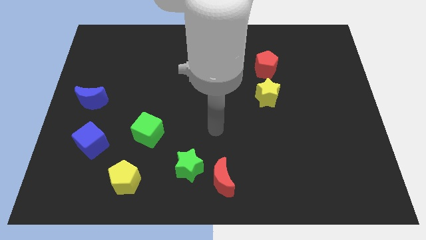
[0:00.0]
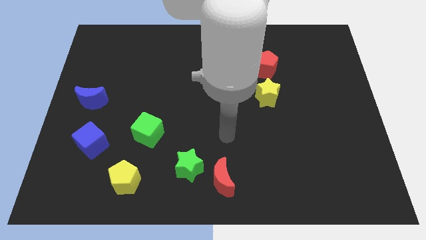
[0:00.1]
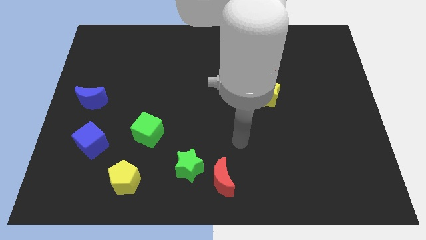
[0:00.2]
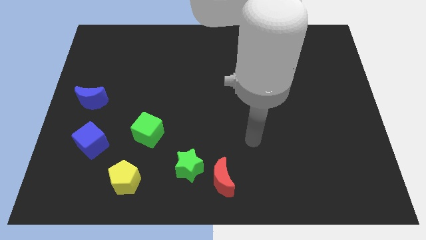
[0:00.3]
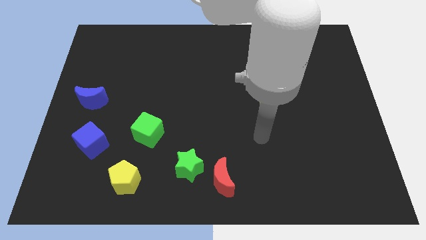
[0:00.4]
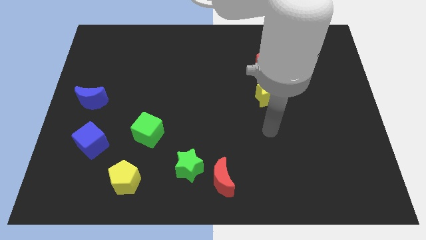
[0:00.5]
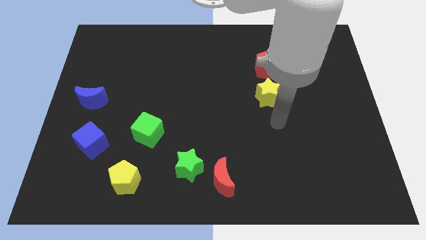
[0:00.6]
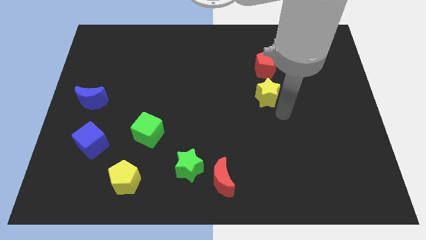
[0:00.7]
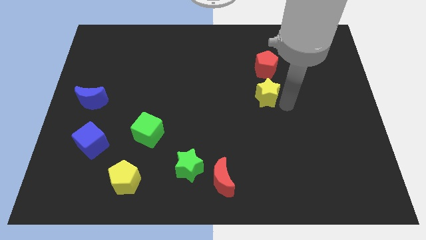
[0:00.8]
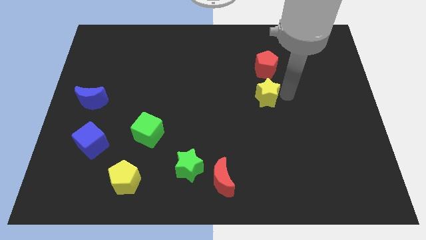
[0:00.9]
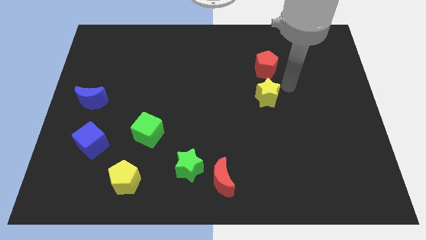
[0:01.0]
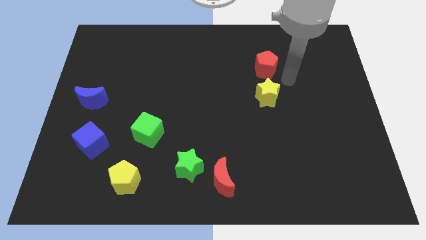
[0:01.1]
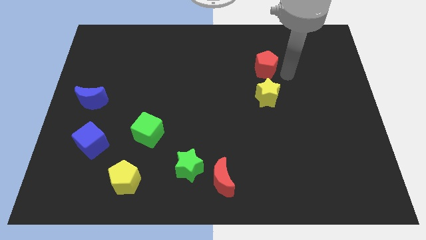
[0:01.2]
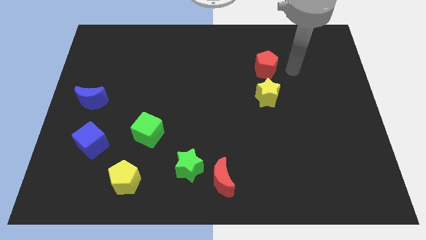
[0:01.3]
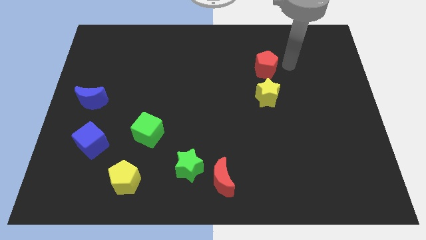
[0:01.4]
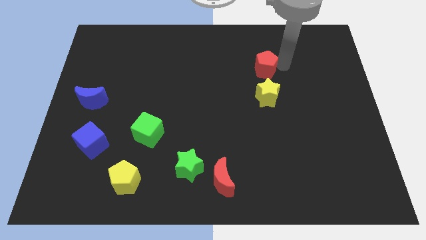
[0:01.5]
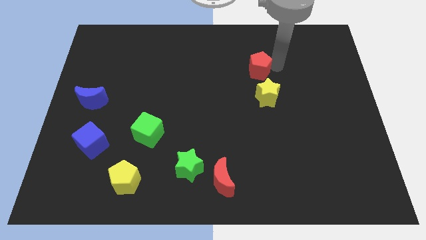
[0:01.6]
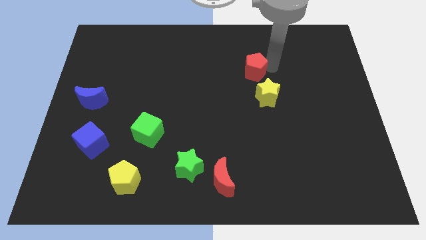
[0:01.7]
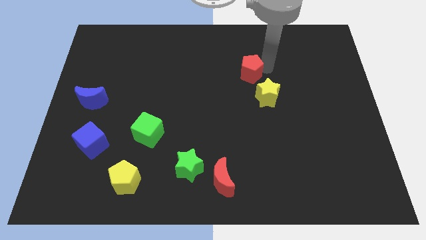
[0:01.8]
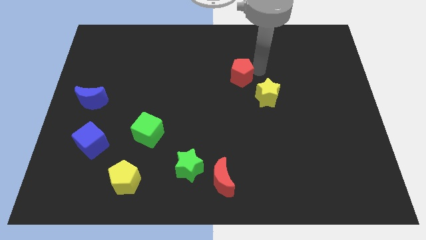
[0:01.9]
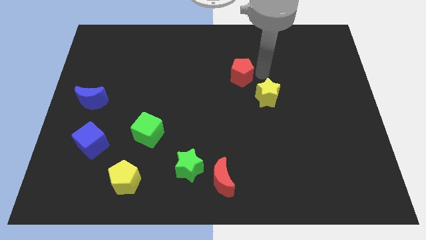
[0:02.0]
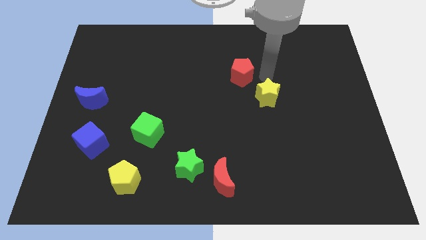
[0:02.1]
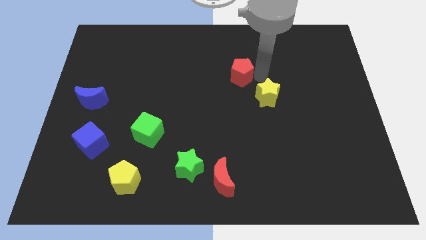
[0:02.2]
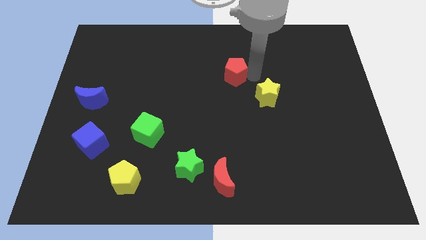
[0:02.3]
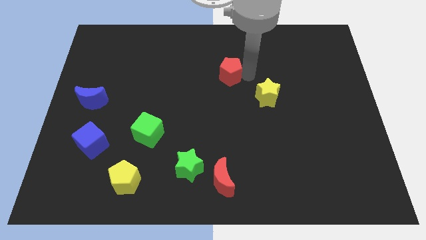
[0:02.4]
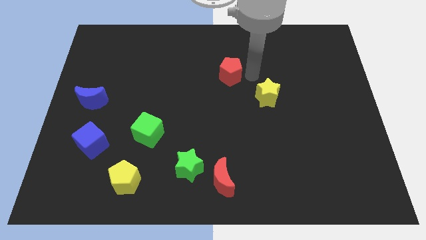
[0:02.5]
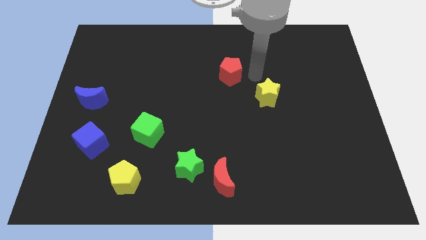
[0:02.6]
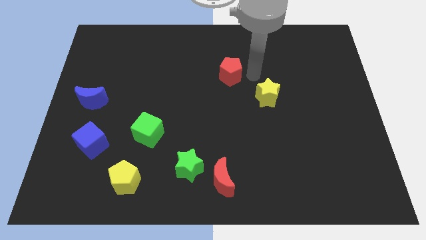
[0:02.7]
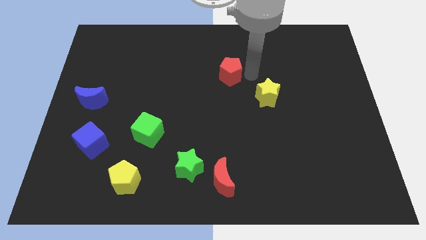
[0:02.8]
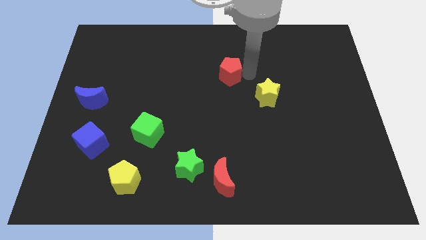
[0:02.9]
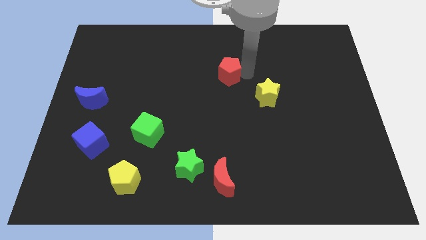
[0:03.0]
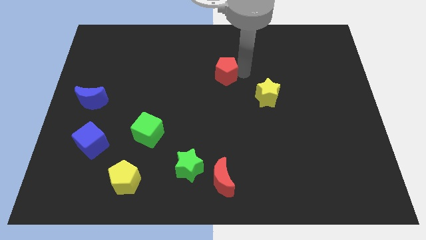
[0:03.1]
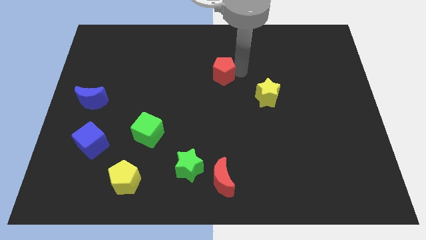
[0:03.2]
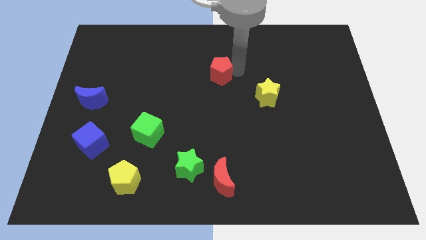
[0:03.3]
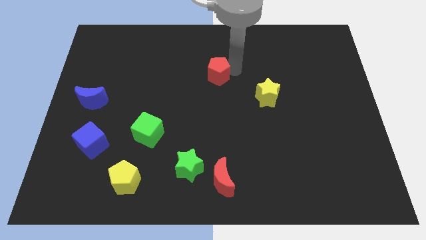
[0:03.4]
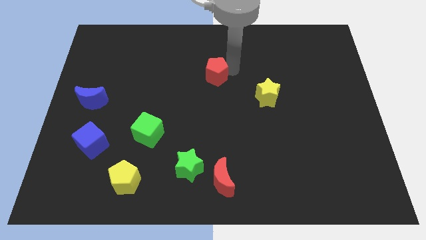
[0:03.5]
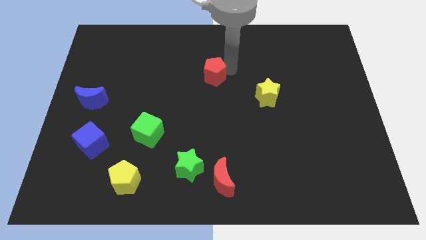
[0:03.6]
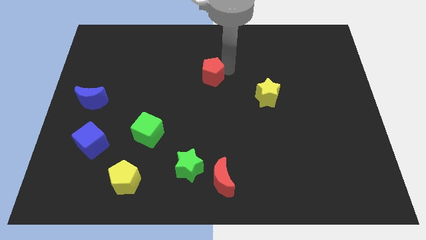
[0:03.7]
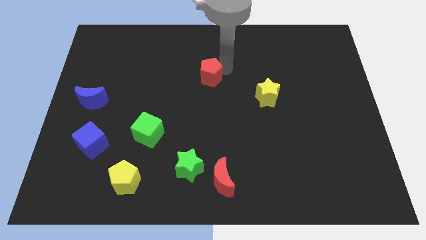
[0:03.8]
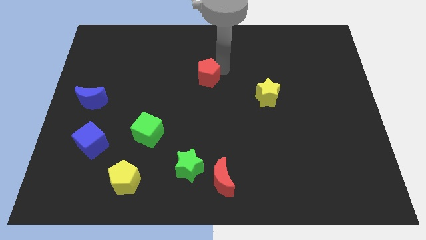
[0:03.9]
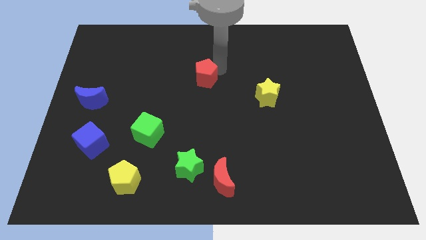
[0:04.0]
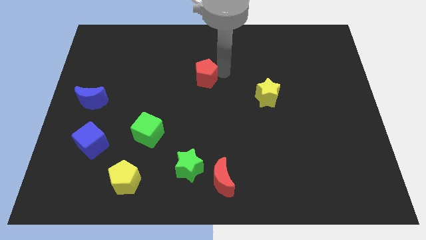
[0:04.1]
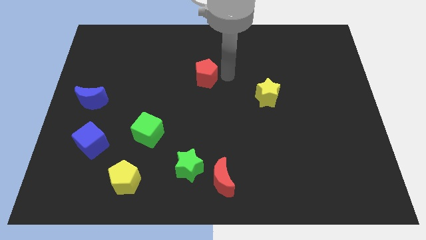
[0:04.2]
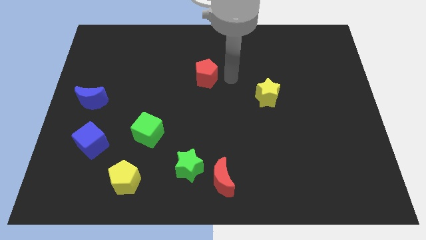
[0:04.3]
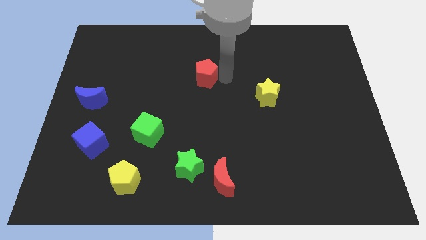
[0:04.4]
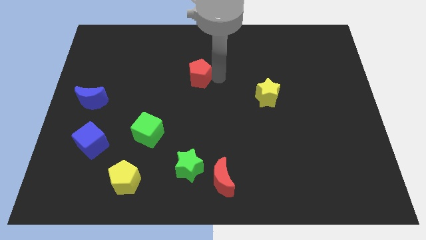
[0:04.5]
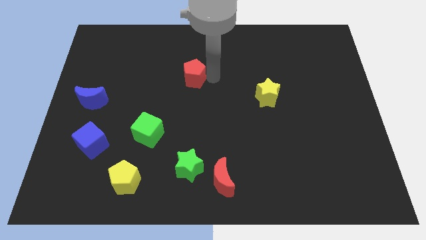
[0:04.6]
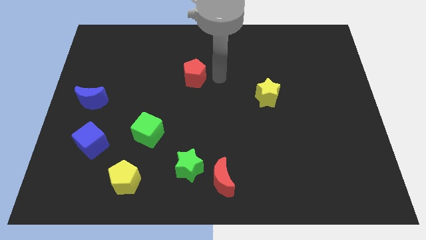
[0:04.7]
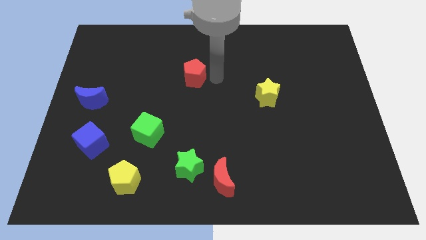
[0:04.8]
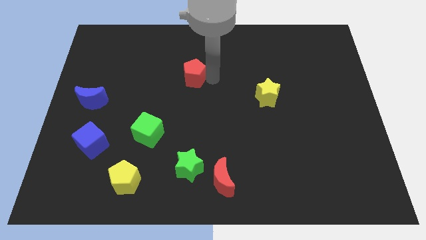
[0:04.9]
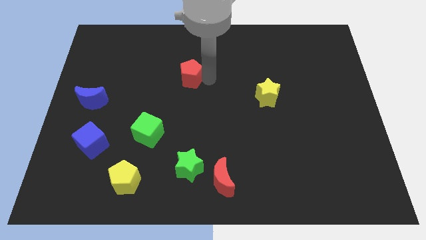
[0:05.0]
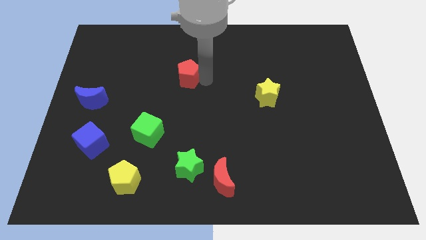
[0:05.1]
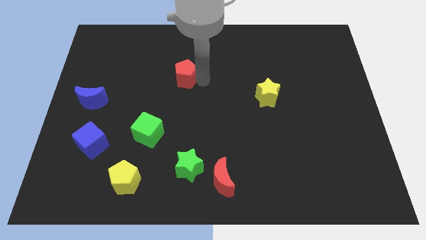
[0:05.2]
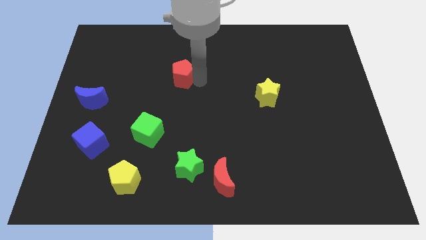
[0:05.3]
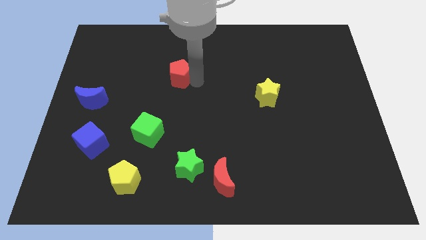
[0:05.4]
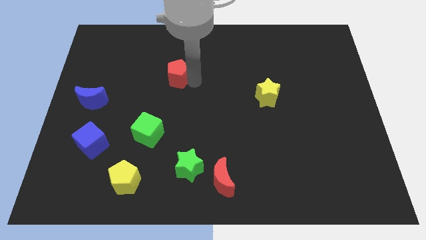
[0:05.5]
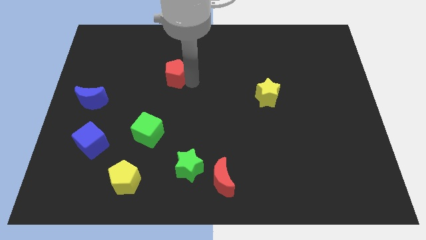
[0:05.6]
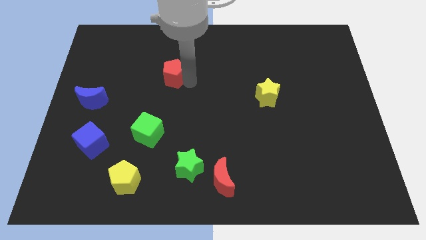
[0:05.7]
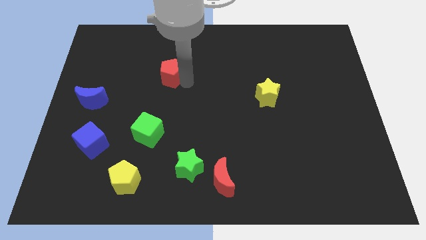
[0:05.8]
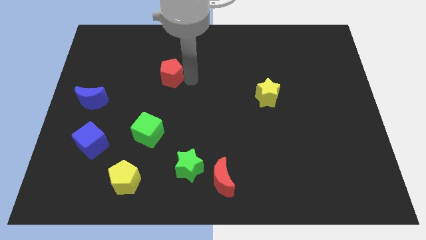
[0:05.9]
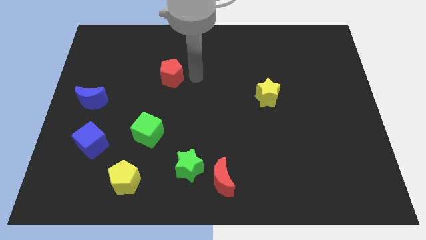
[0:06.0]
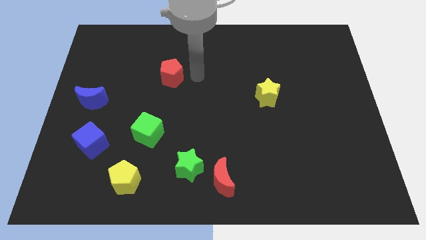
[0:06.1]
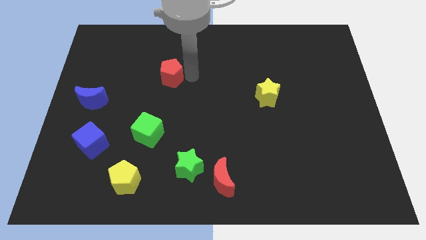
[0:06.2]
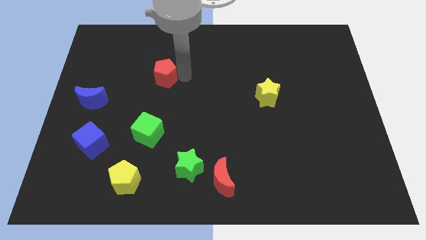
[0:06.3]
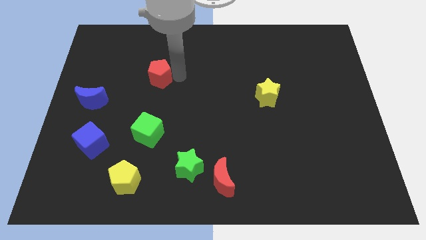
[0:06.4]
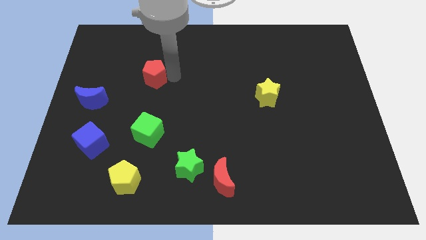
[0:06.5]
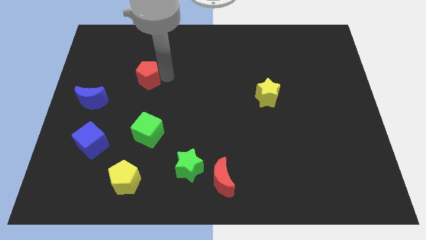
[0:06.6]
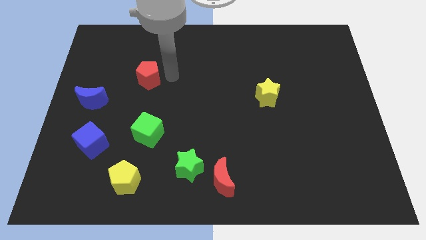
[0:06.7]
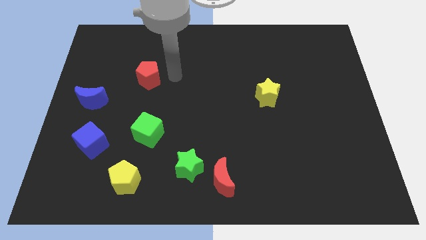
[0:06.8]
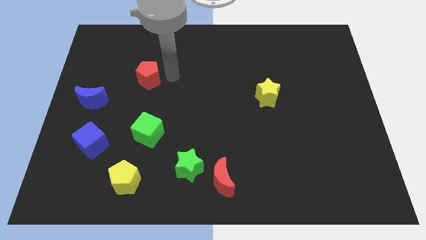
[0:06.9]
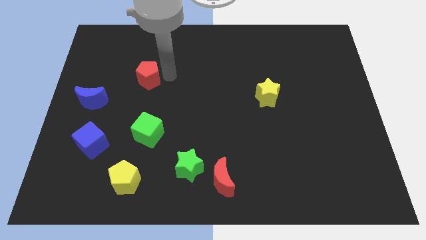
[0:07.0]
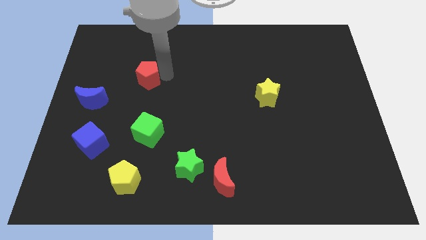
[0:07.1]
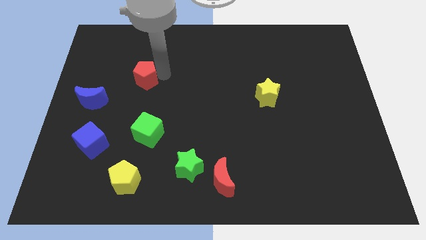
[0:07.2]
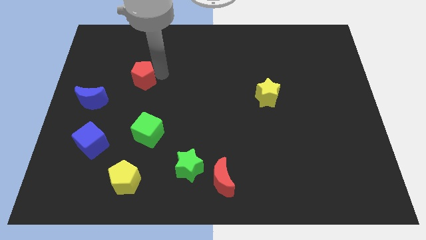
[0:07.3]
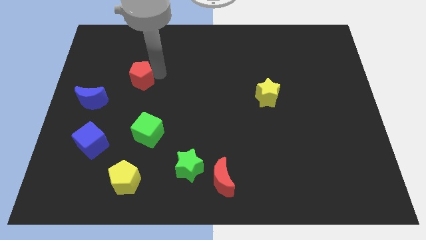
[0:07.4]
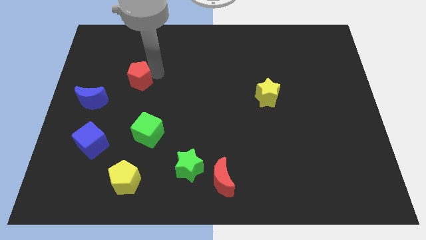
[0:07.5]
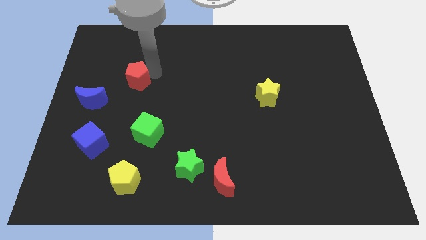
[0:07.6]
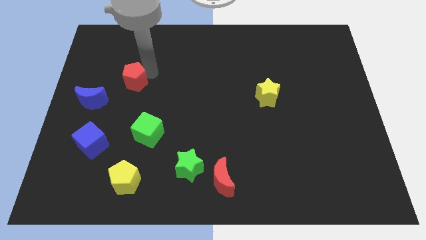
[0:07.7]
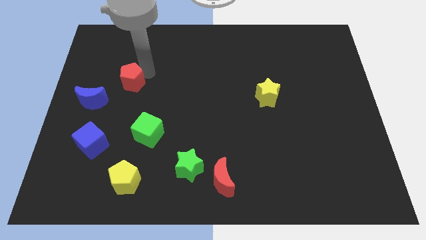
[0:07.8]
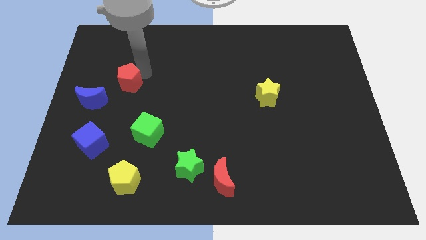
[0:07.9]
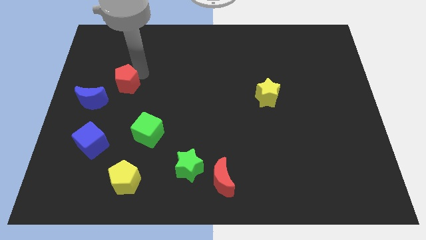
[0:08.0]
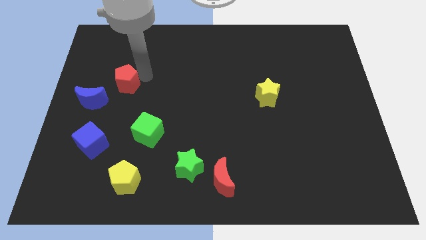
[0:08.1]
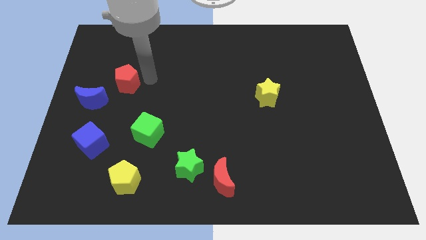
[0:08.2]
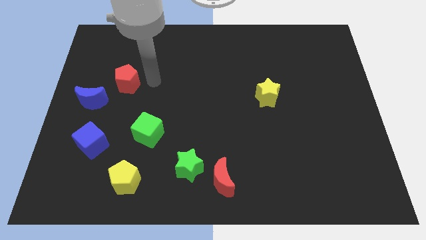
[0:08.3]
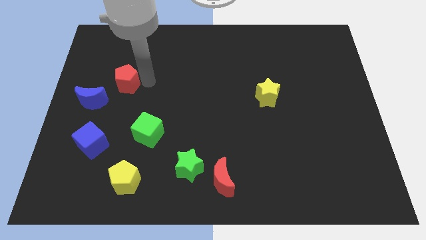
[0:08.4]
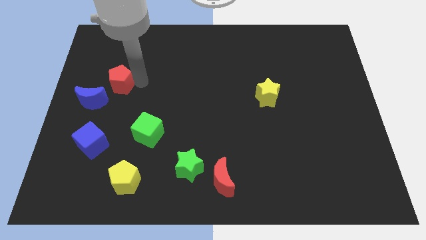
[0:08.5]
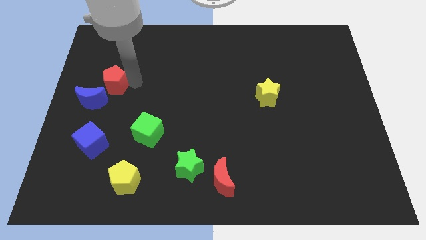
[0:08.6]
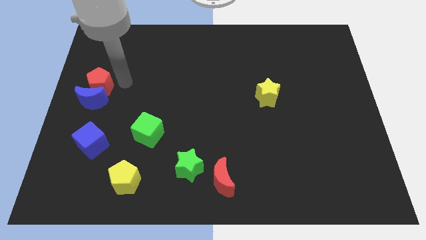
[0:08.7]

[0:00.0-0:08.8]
push the red pentagon to the left side
